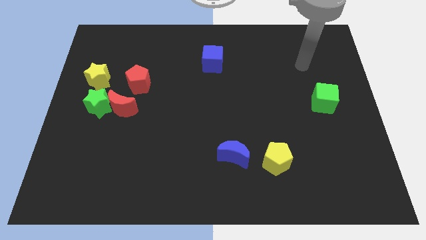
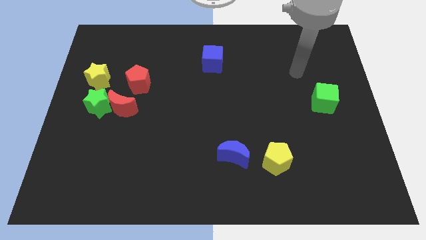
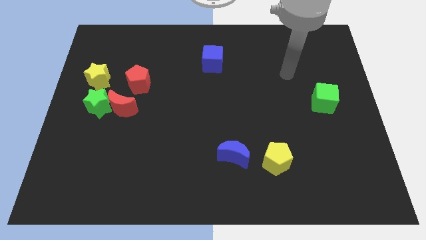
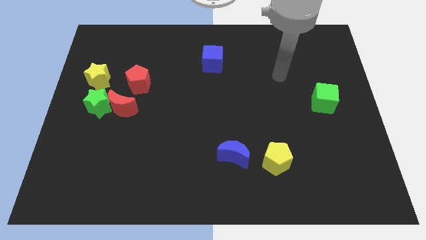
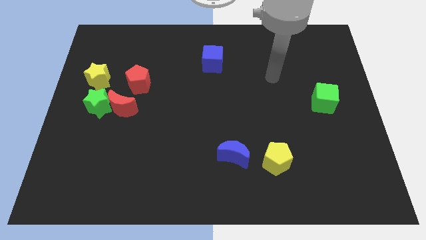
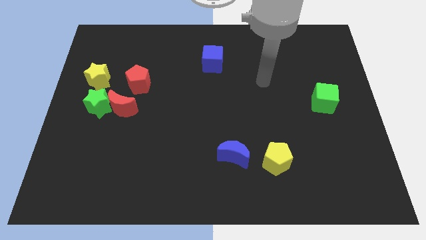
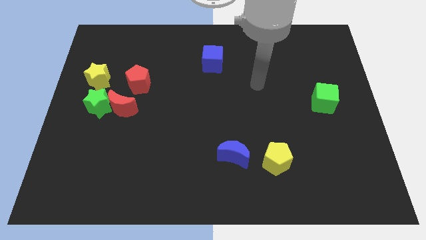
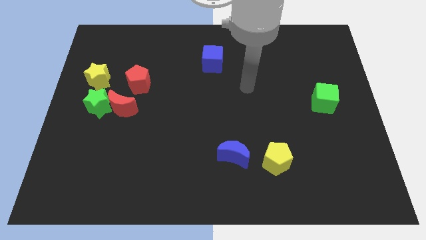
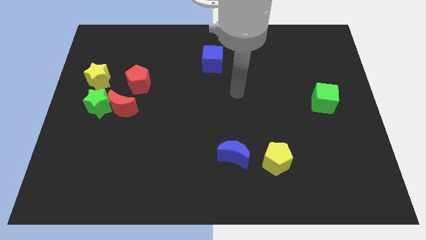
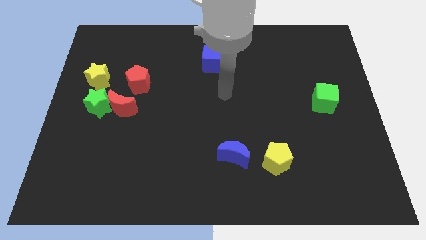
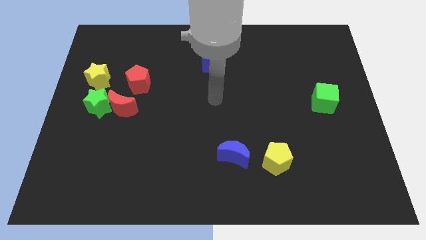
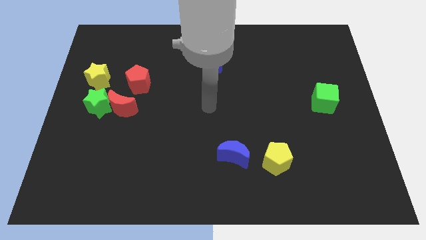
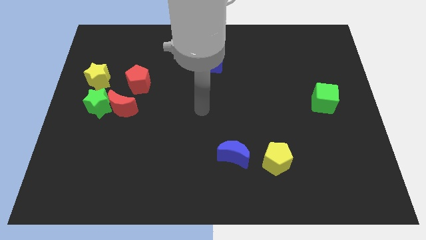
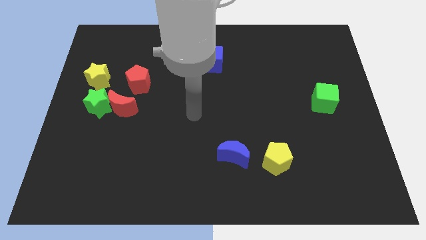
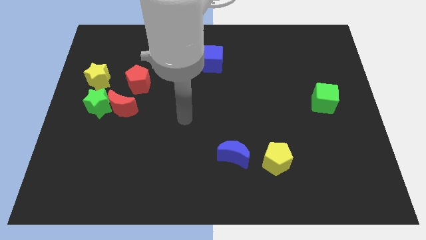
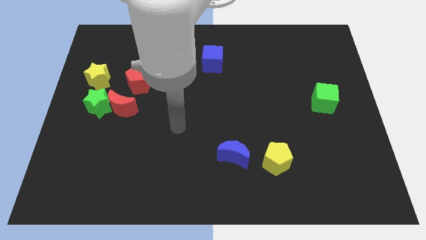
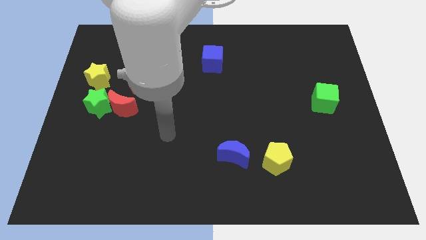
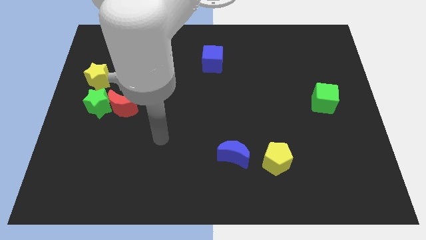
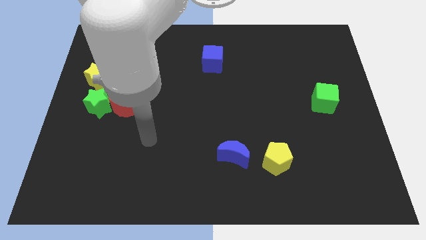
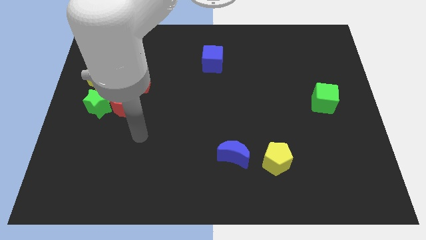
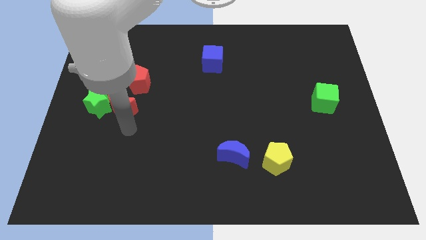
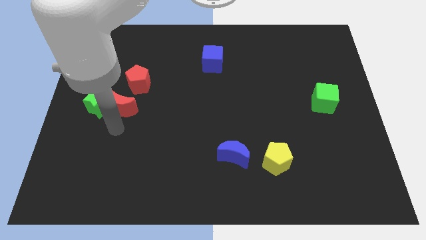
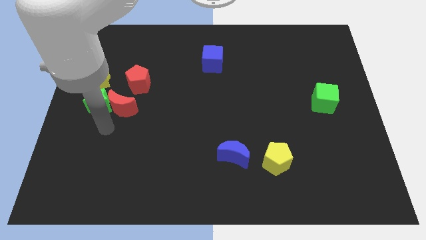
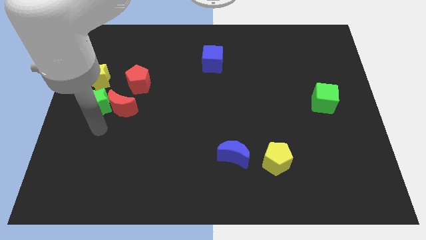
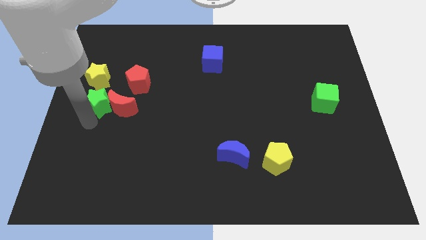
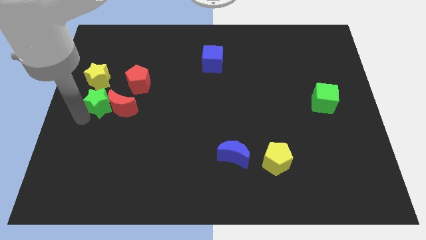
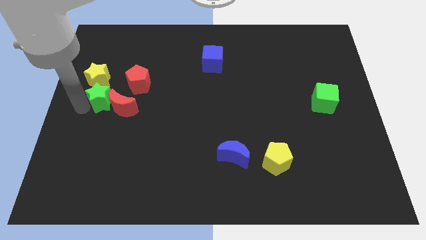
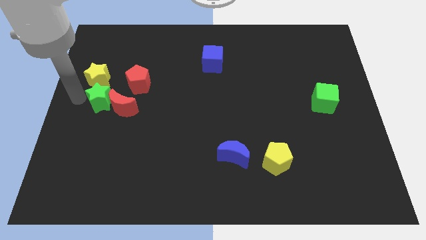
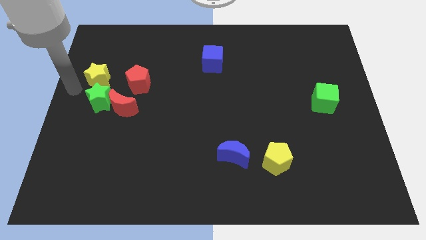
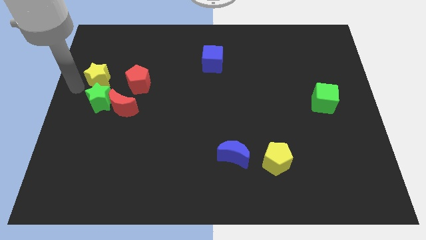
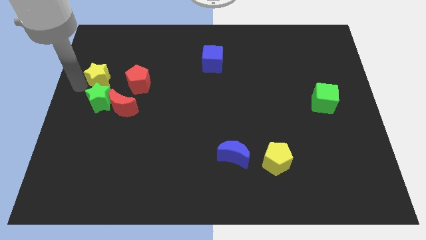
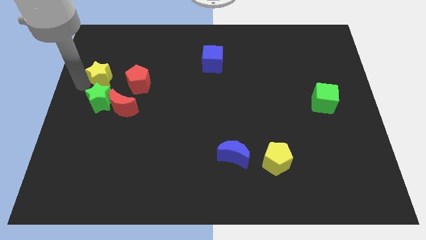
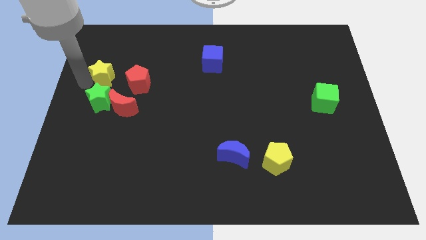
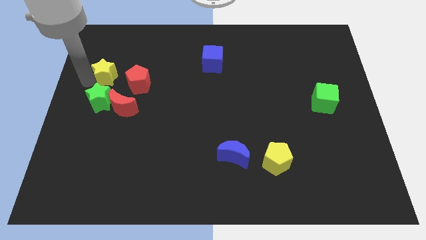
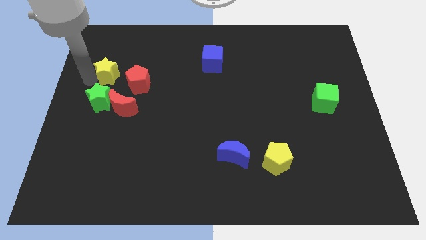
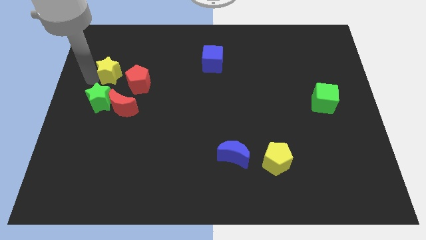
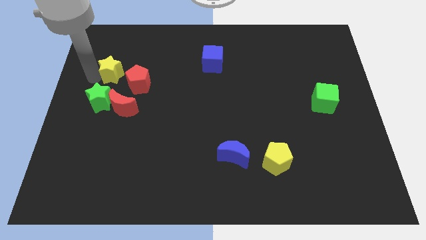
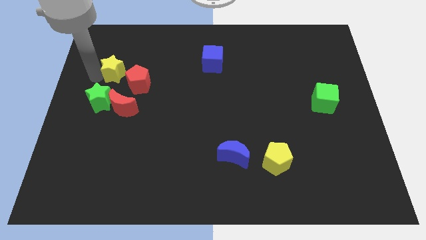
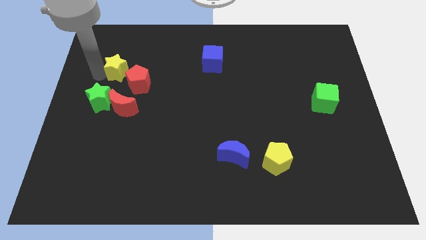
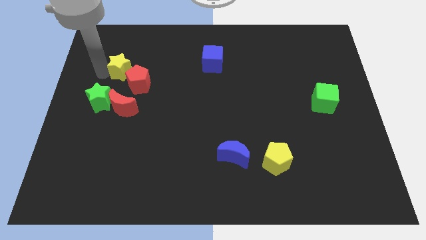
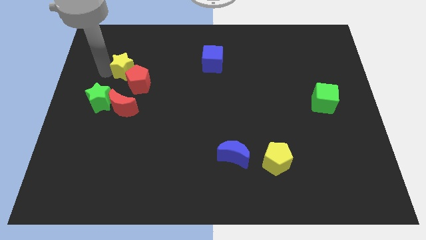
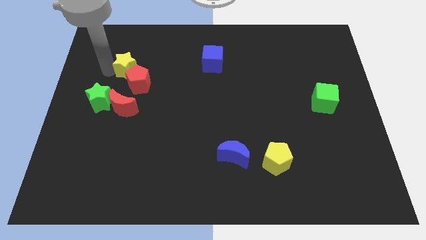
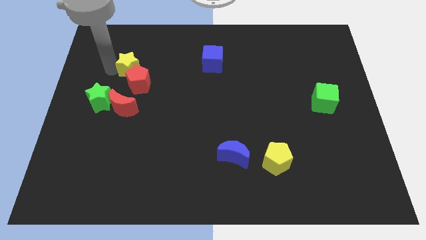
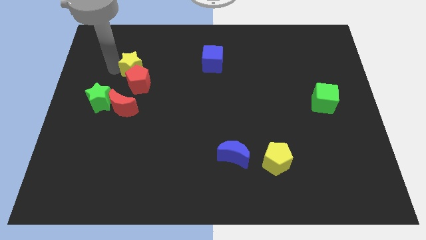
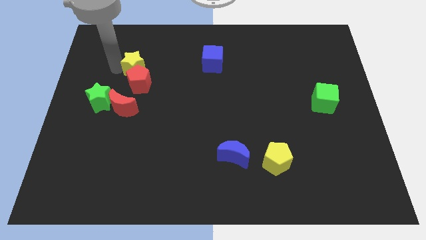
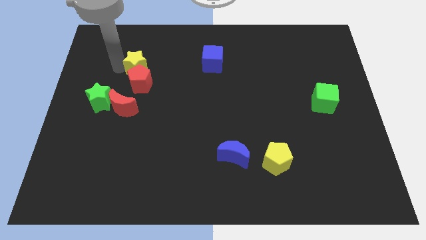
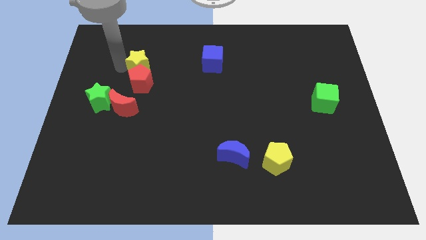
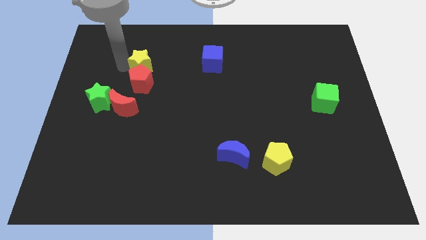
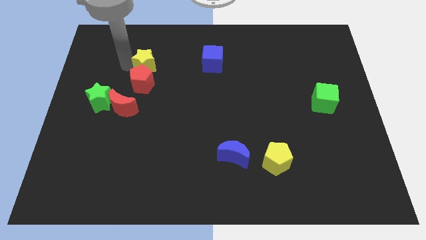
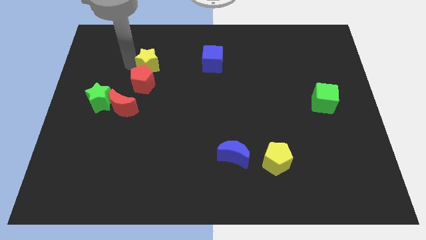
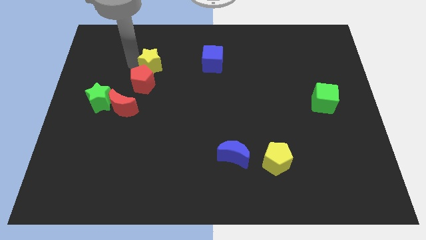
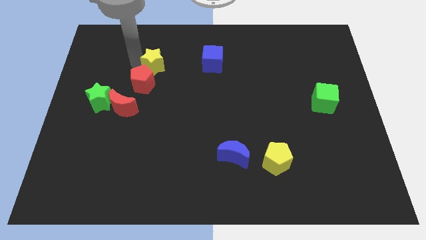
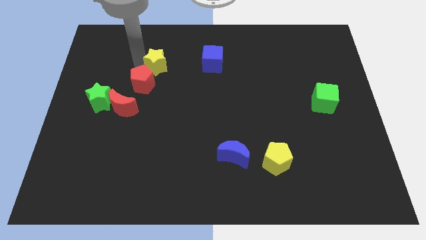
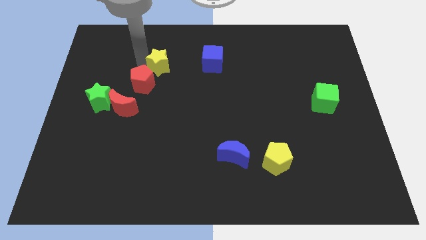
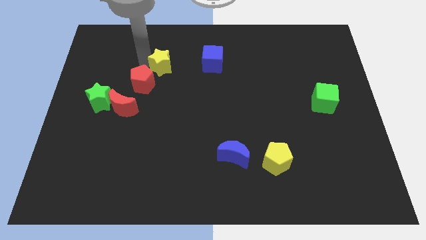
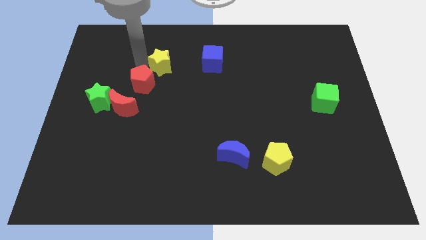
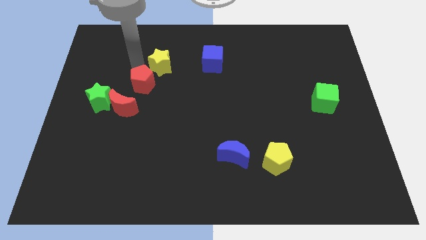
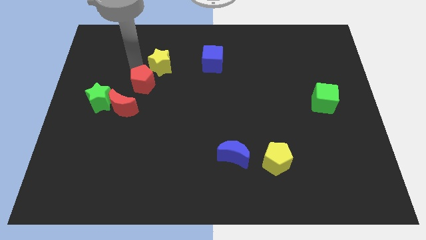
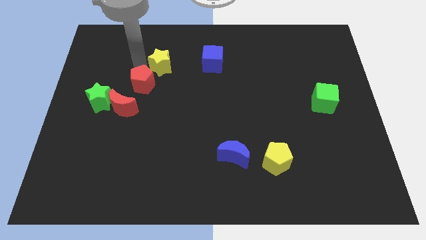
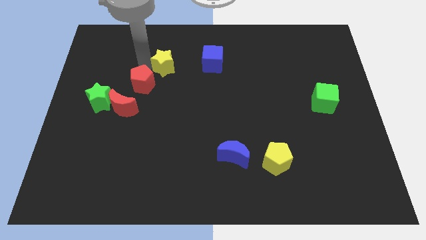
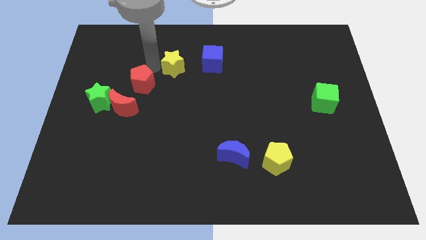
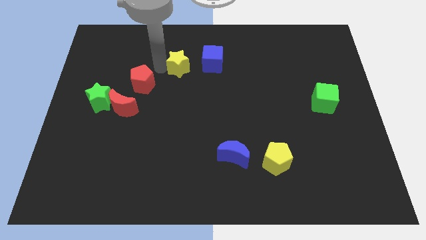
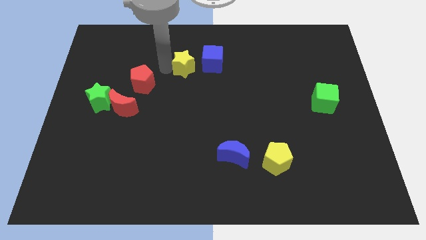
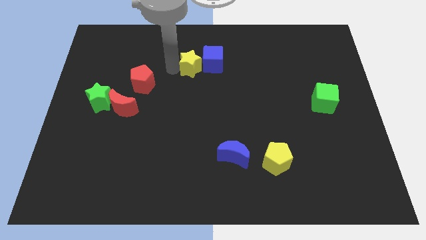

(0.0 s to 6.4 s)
put the yellow star towards the blue cube
